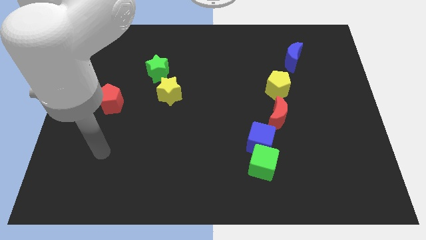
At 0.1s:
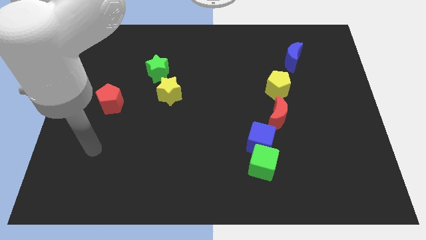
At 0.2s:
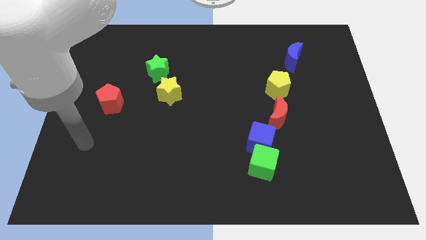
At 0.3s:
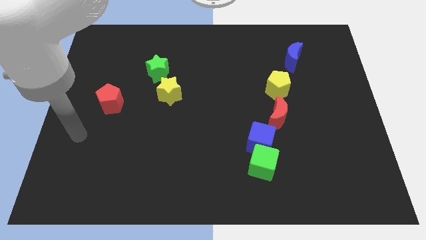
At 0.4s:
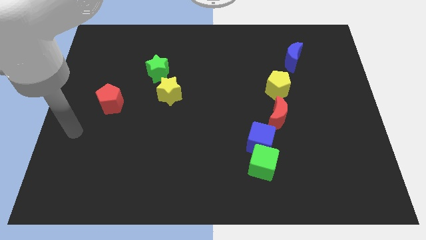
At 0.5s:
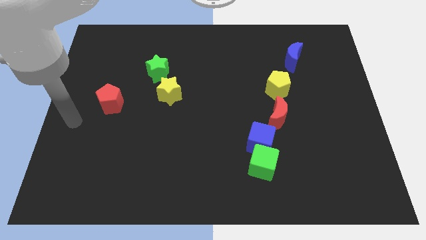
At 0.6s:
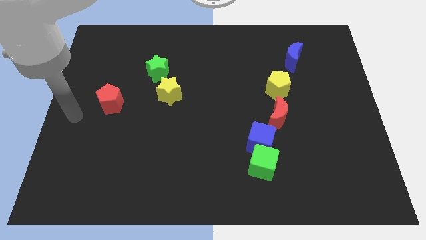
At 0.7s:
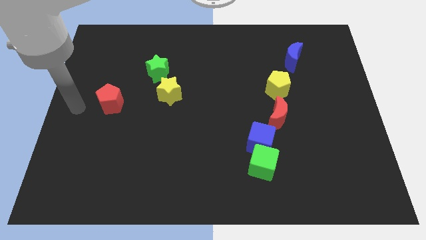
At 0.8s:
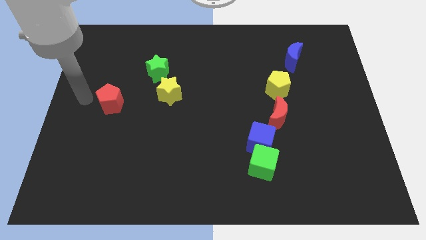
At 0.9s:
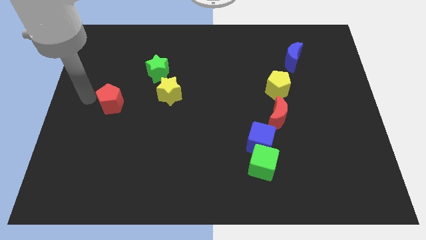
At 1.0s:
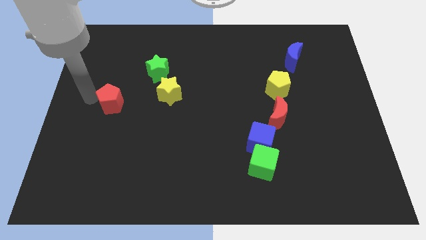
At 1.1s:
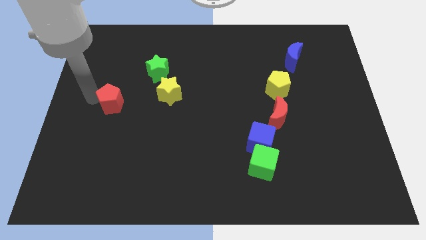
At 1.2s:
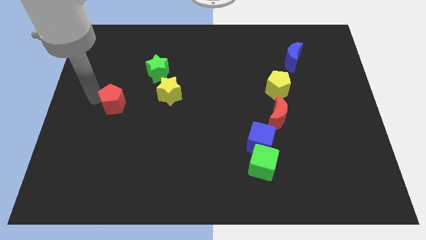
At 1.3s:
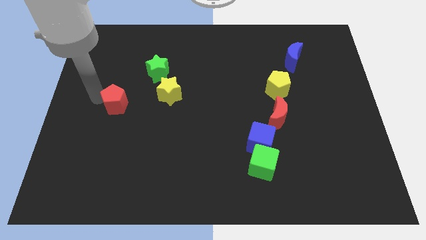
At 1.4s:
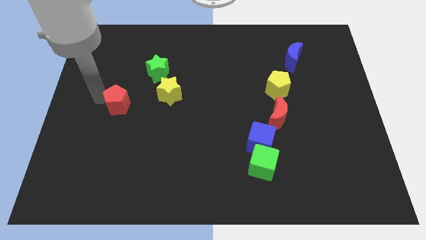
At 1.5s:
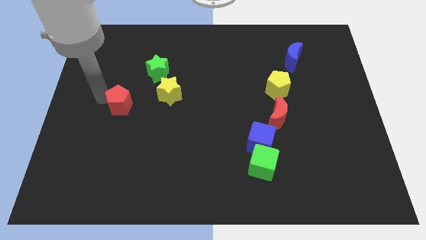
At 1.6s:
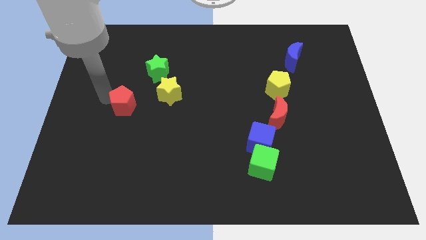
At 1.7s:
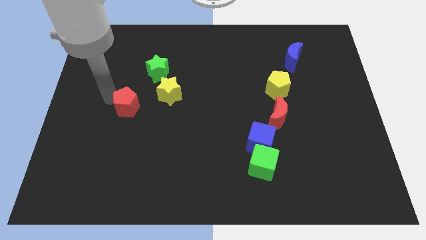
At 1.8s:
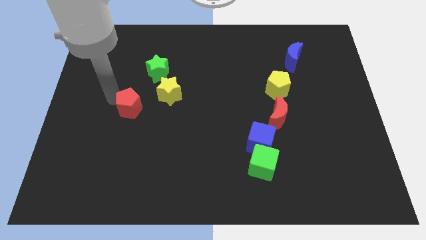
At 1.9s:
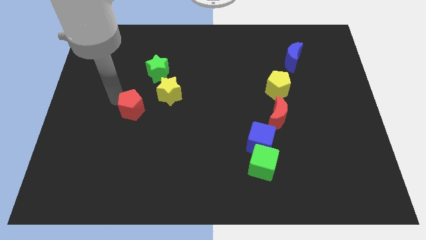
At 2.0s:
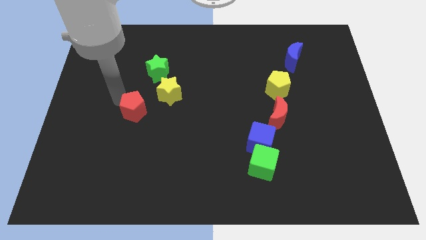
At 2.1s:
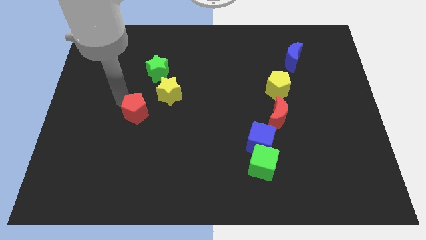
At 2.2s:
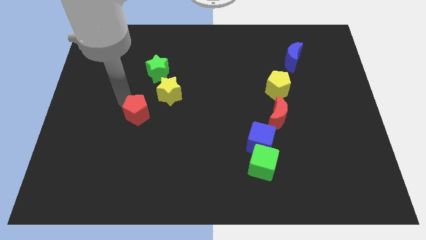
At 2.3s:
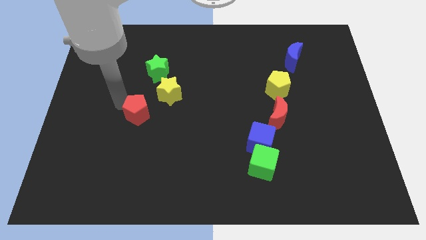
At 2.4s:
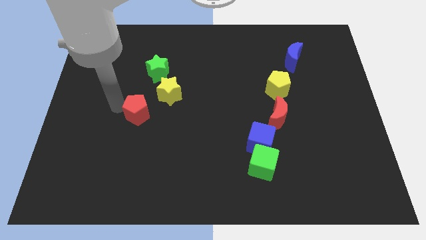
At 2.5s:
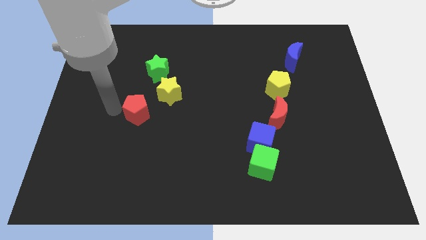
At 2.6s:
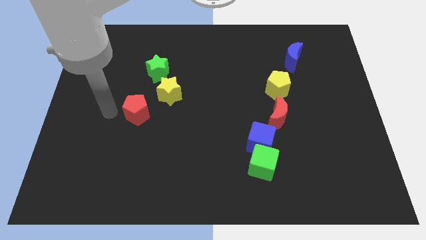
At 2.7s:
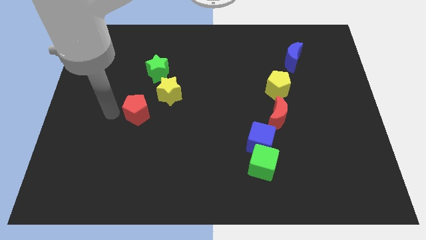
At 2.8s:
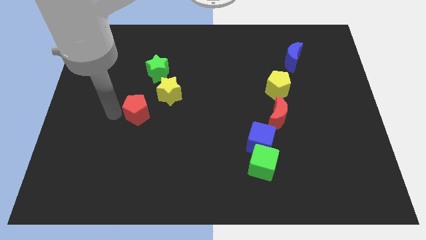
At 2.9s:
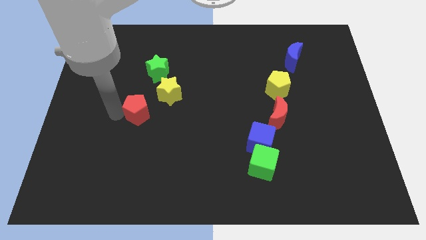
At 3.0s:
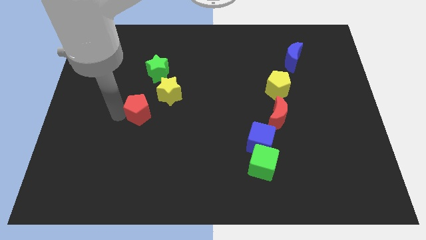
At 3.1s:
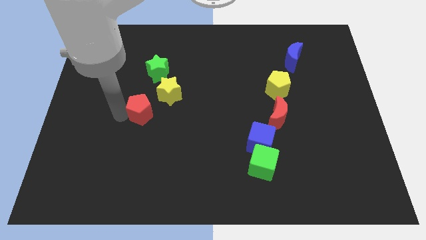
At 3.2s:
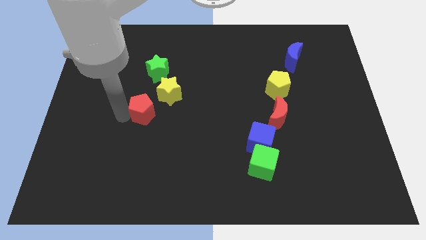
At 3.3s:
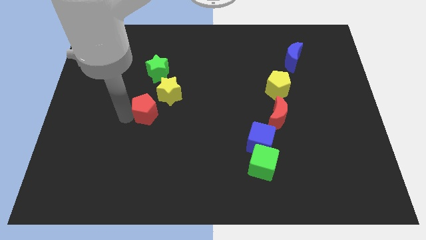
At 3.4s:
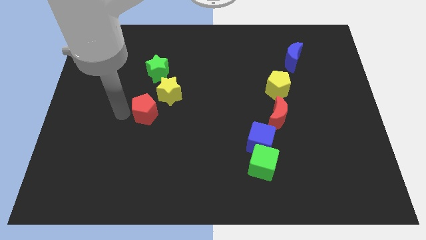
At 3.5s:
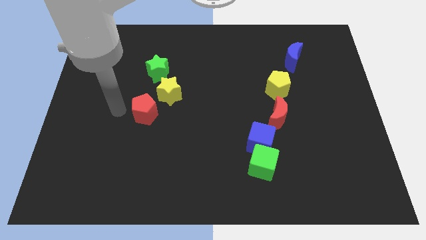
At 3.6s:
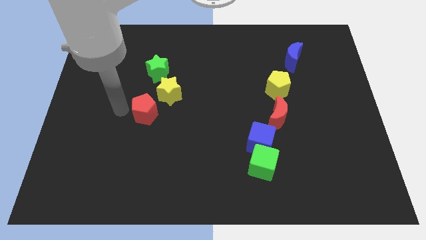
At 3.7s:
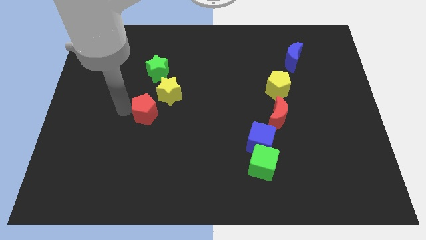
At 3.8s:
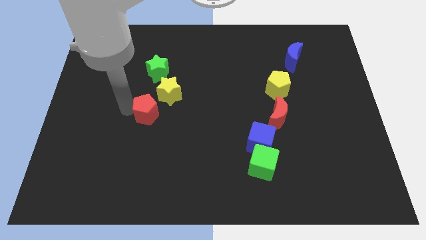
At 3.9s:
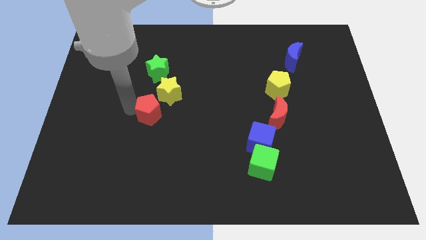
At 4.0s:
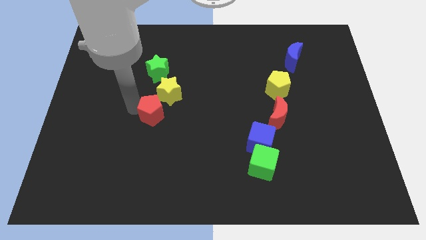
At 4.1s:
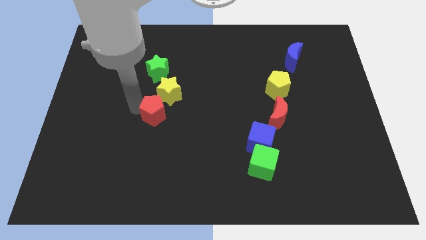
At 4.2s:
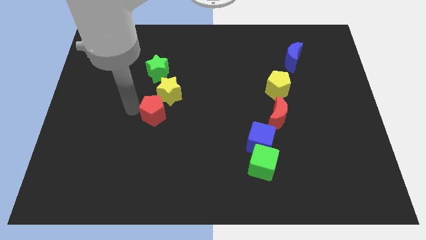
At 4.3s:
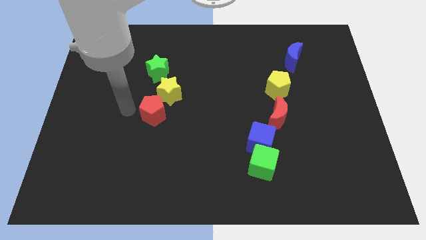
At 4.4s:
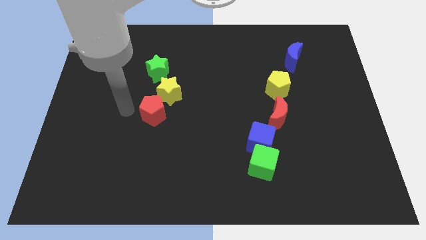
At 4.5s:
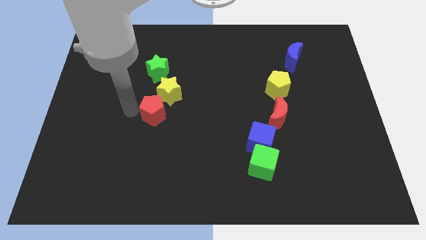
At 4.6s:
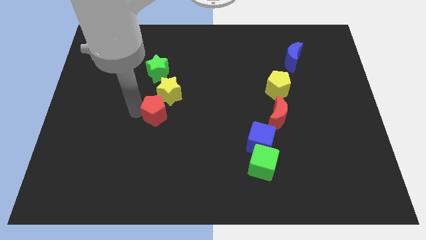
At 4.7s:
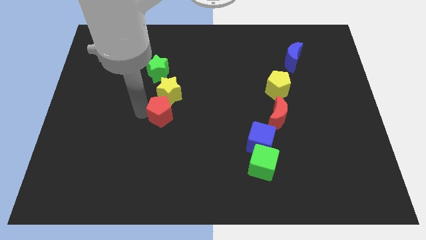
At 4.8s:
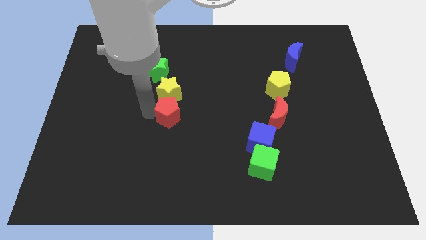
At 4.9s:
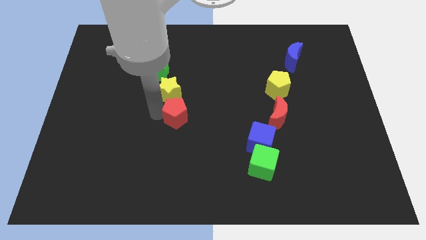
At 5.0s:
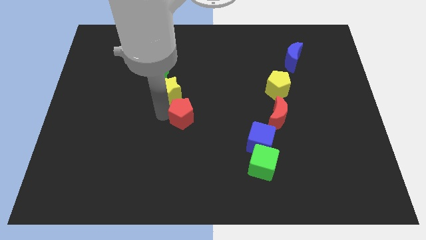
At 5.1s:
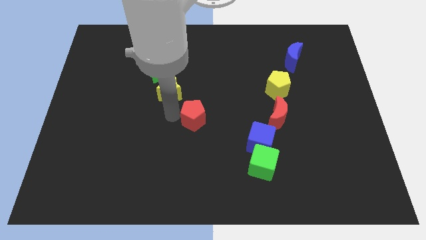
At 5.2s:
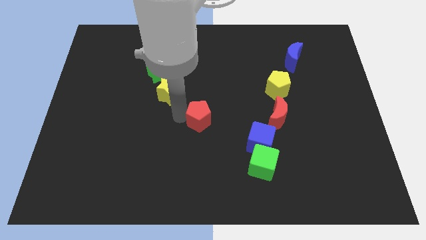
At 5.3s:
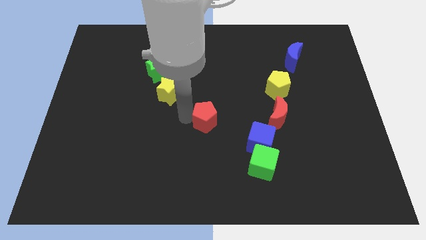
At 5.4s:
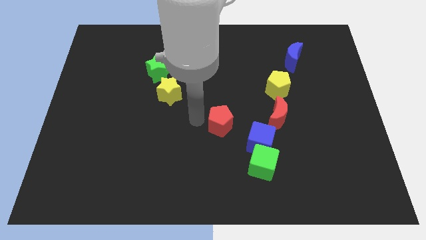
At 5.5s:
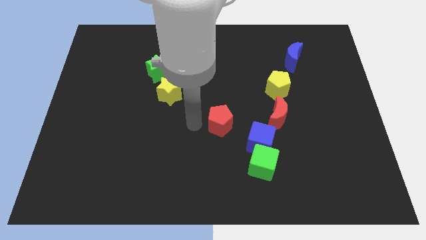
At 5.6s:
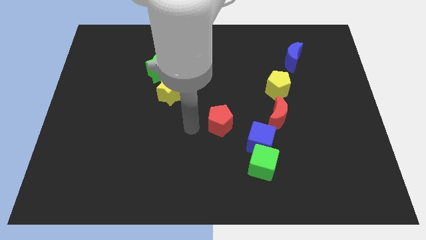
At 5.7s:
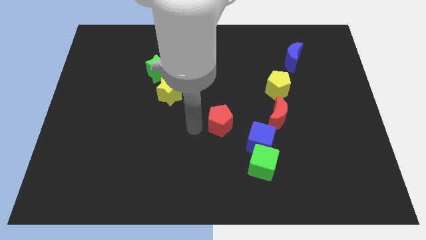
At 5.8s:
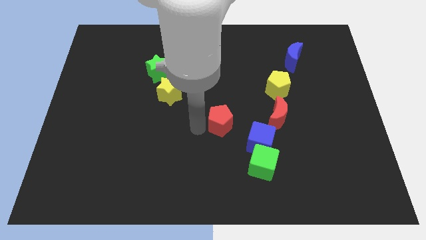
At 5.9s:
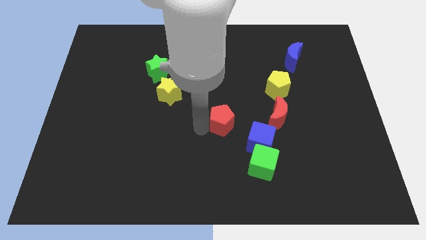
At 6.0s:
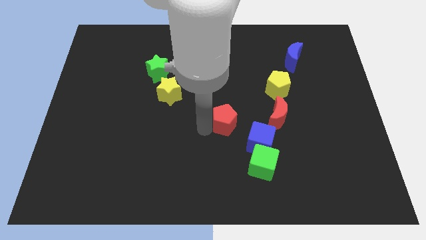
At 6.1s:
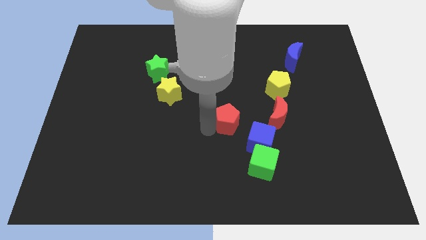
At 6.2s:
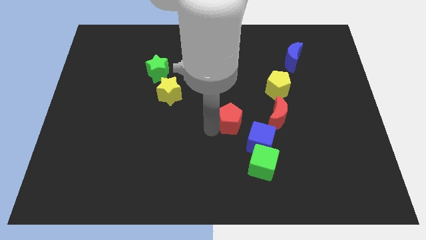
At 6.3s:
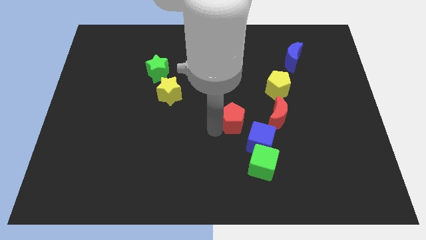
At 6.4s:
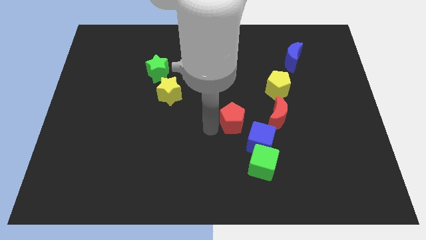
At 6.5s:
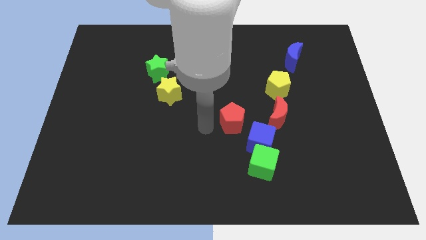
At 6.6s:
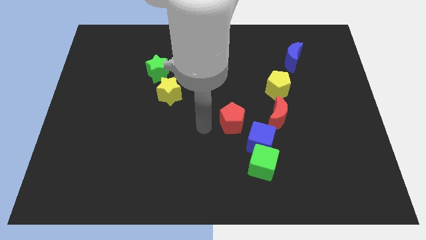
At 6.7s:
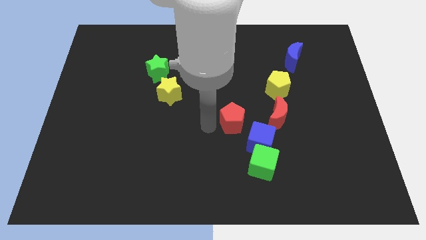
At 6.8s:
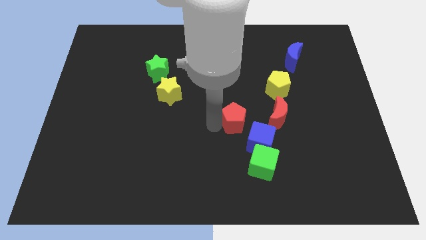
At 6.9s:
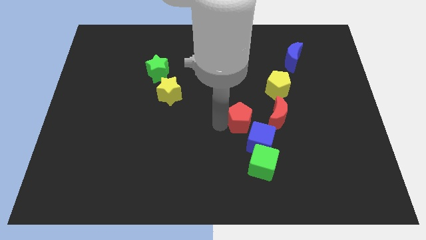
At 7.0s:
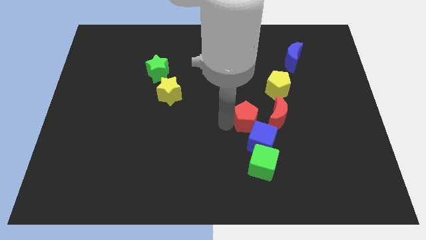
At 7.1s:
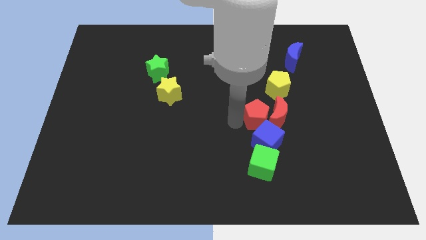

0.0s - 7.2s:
put the red pentagon next to the red moon
